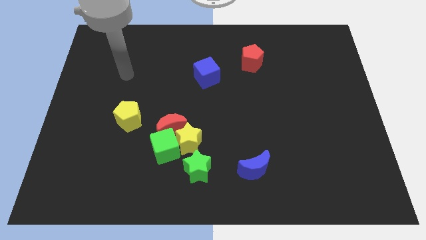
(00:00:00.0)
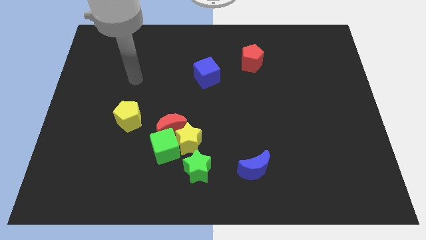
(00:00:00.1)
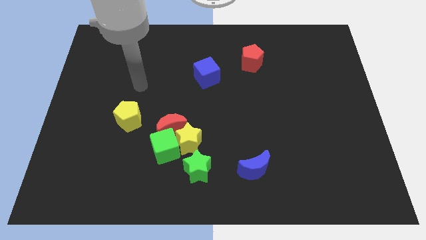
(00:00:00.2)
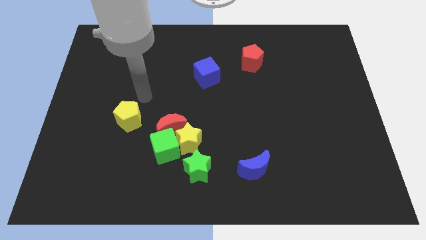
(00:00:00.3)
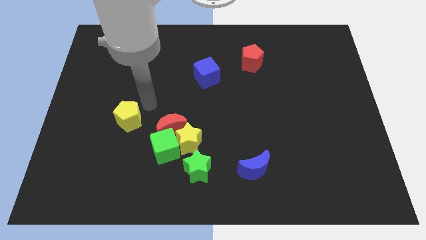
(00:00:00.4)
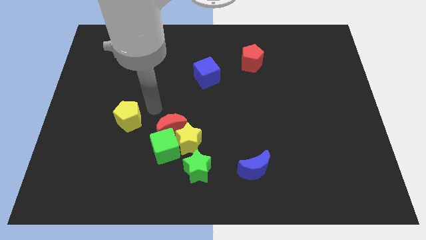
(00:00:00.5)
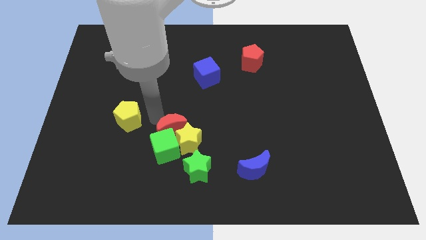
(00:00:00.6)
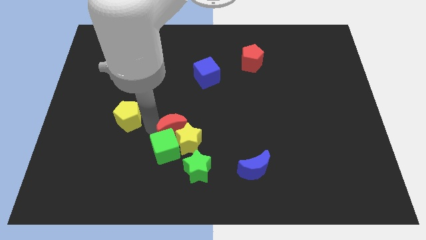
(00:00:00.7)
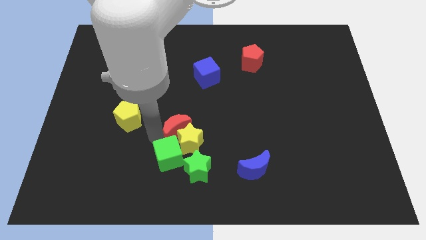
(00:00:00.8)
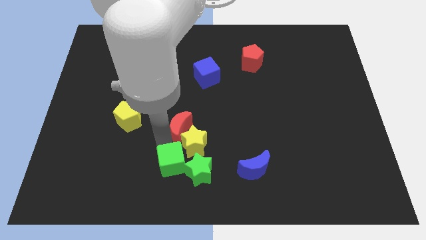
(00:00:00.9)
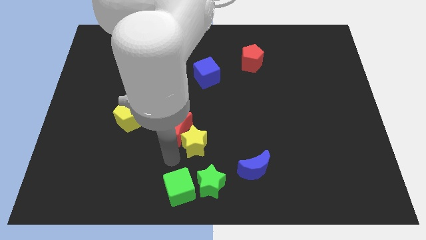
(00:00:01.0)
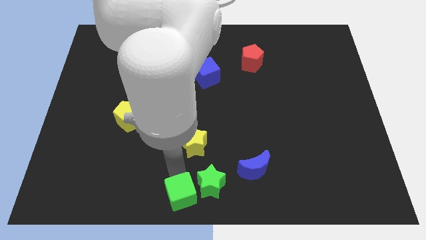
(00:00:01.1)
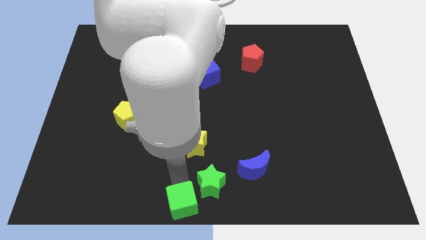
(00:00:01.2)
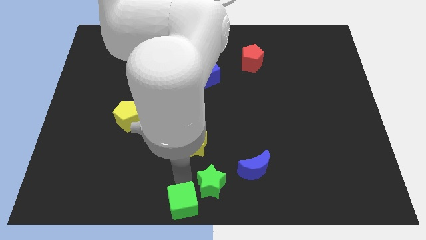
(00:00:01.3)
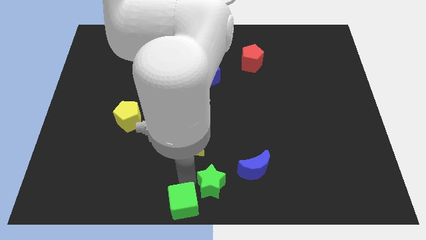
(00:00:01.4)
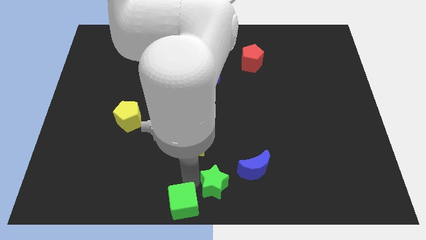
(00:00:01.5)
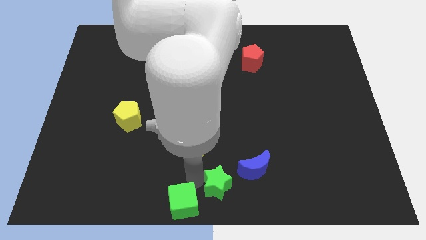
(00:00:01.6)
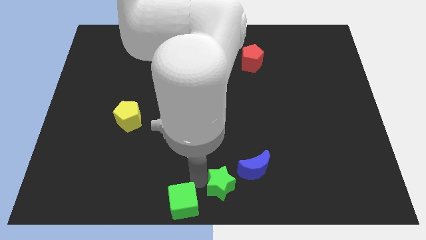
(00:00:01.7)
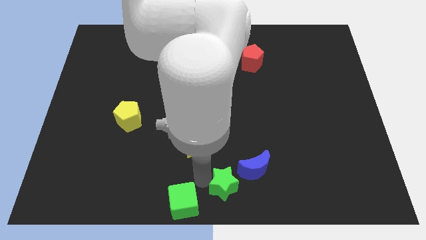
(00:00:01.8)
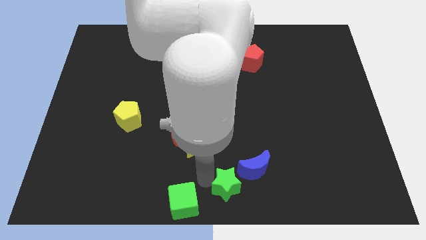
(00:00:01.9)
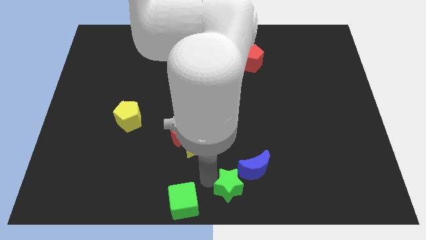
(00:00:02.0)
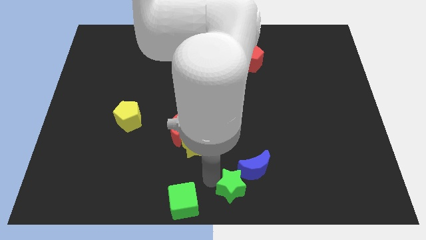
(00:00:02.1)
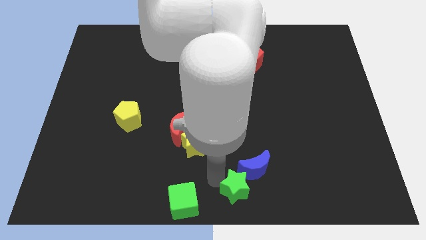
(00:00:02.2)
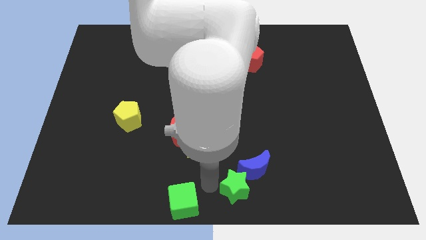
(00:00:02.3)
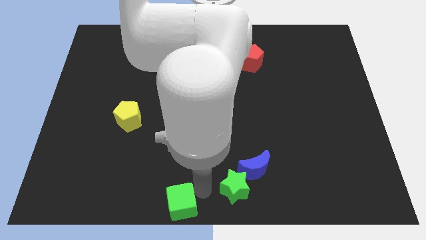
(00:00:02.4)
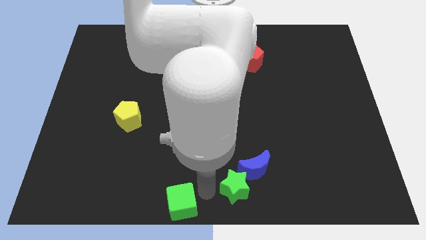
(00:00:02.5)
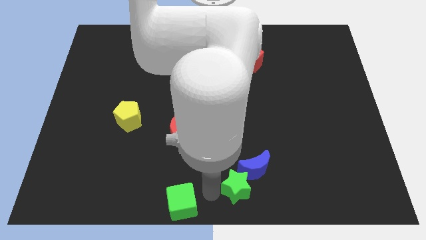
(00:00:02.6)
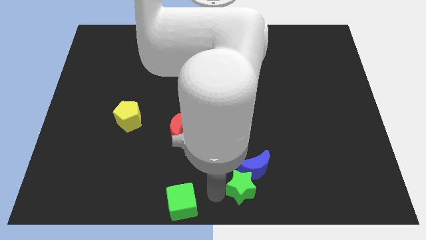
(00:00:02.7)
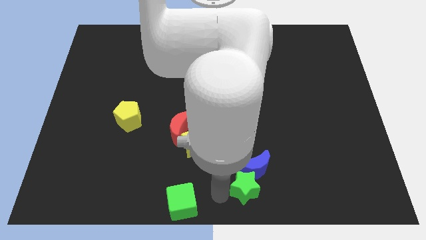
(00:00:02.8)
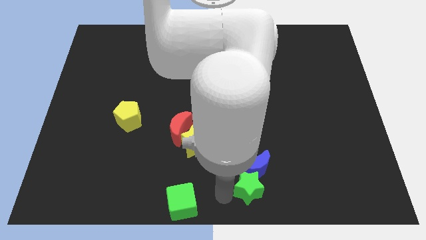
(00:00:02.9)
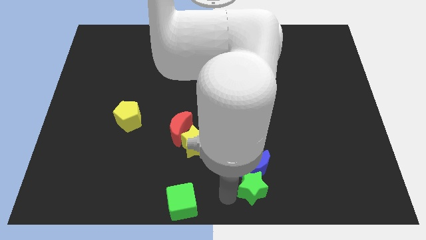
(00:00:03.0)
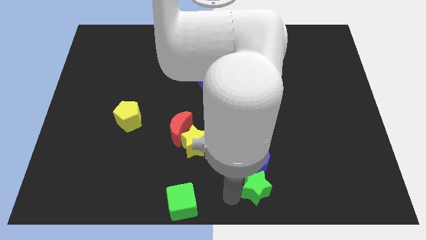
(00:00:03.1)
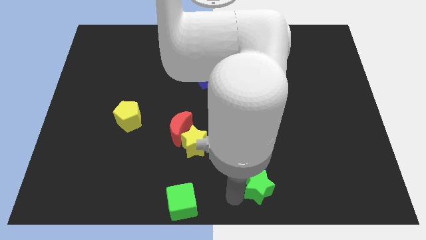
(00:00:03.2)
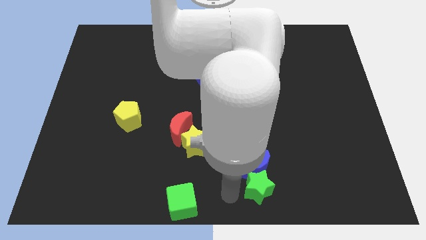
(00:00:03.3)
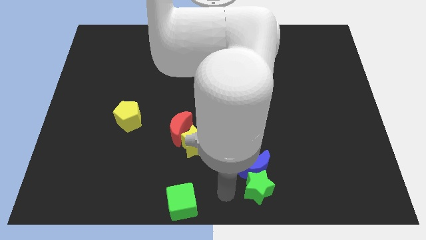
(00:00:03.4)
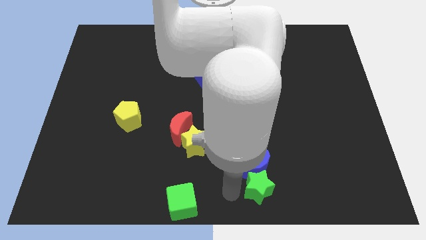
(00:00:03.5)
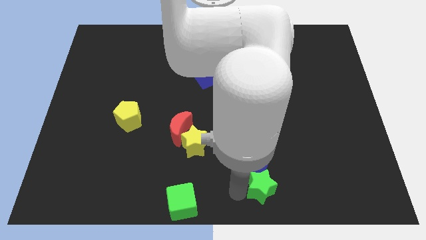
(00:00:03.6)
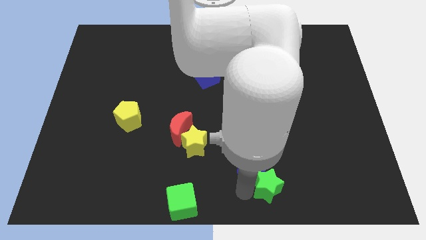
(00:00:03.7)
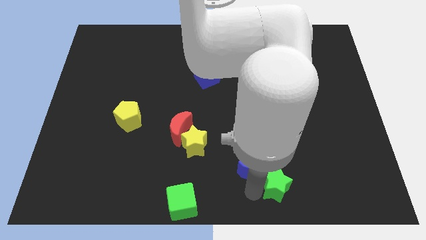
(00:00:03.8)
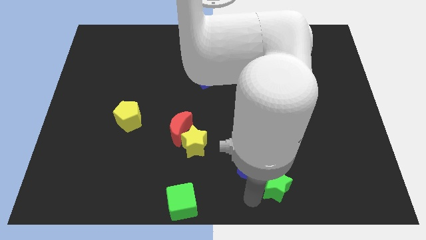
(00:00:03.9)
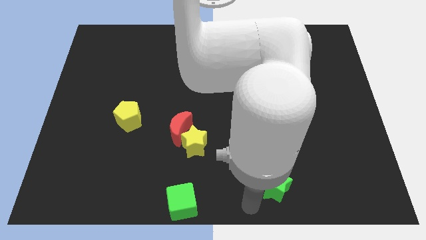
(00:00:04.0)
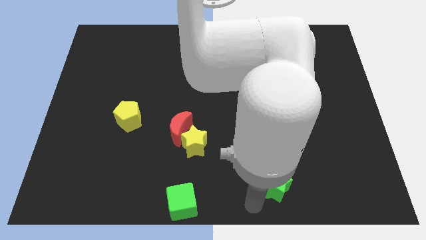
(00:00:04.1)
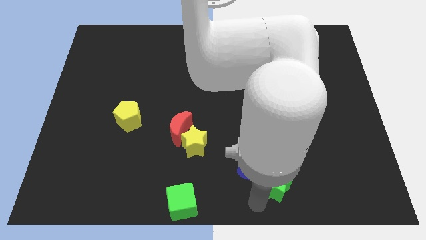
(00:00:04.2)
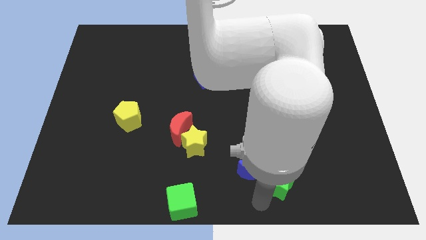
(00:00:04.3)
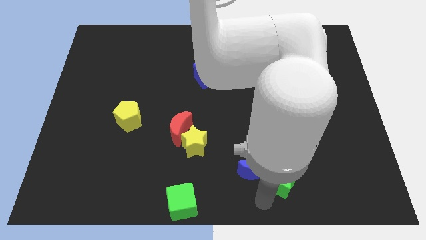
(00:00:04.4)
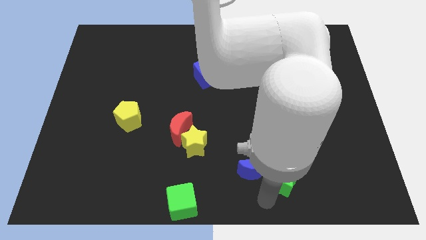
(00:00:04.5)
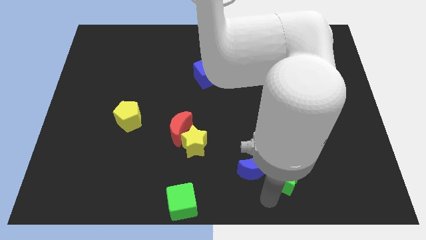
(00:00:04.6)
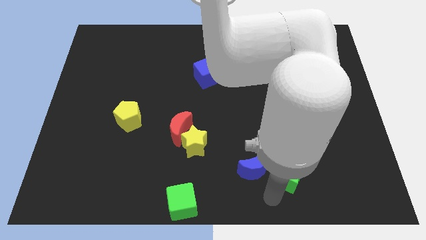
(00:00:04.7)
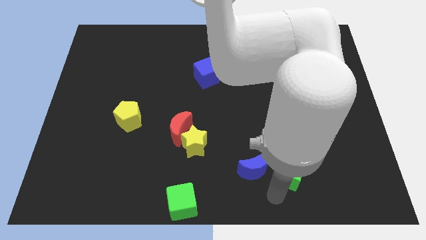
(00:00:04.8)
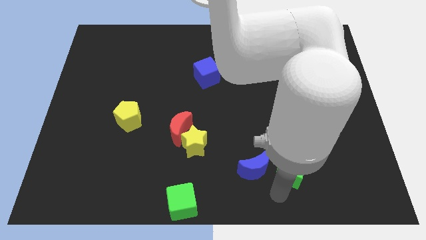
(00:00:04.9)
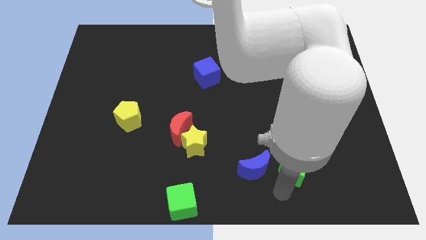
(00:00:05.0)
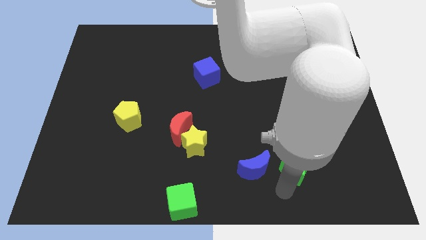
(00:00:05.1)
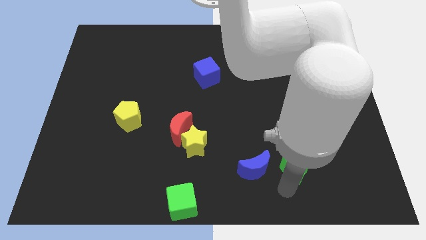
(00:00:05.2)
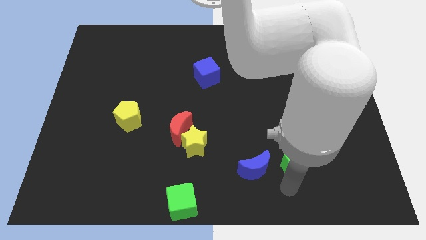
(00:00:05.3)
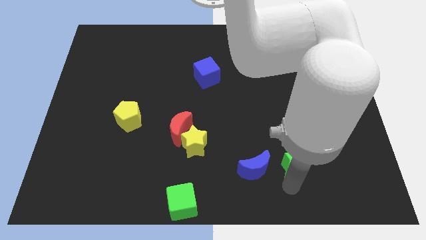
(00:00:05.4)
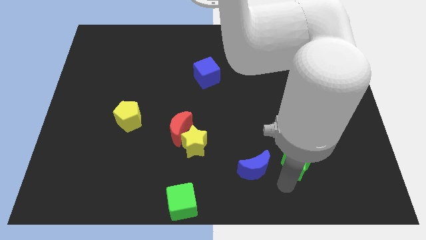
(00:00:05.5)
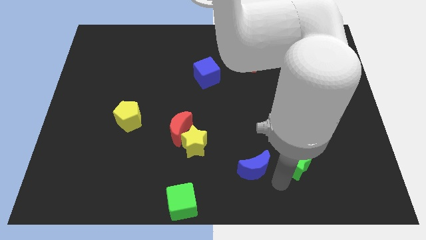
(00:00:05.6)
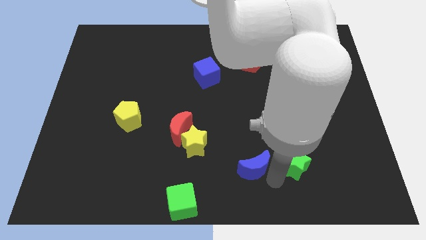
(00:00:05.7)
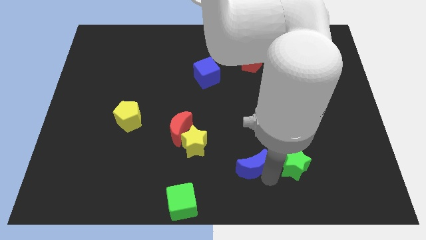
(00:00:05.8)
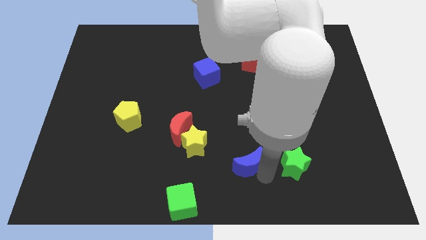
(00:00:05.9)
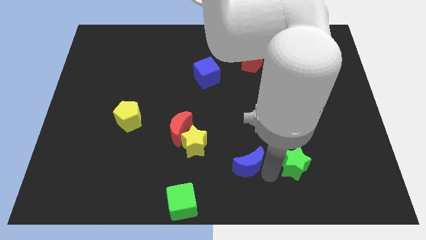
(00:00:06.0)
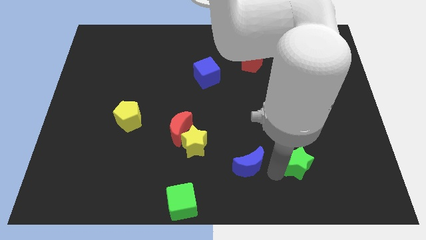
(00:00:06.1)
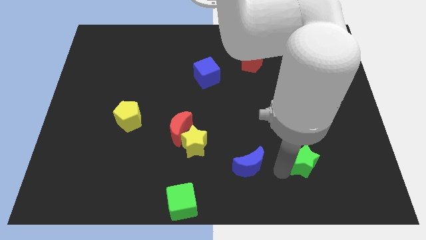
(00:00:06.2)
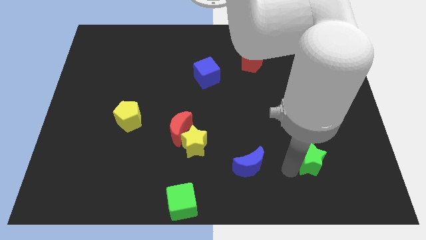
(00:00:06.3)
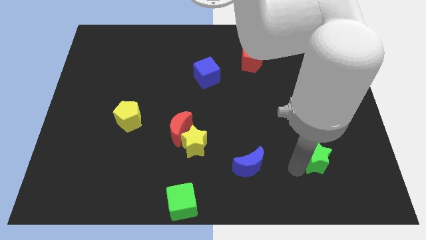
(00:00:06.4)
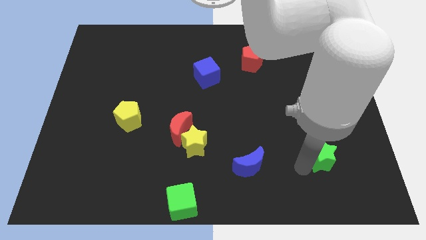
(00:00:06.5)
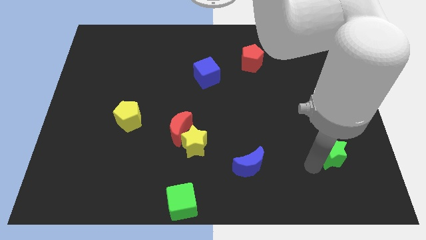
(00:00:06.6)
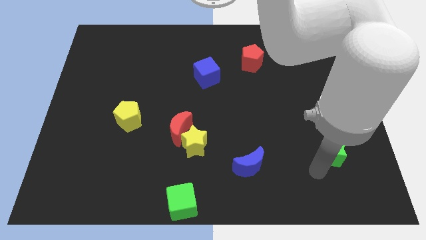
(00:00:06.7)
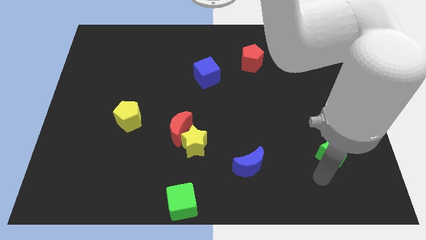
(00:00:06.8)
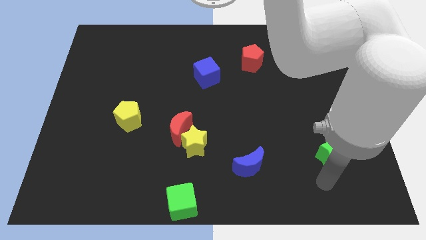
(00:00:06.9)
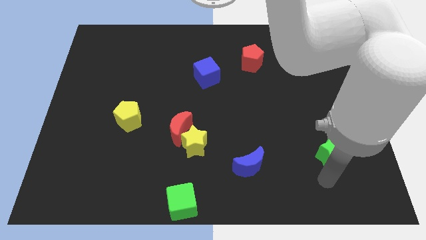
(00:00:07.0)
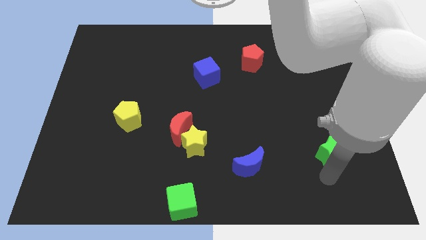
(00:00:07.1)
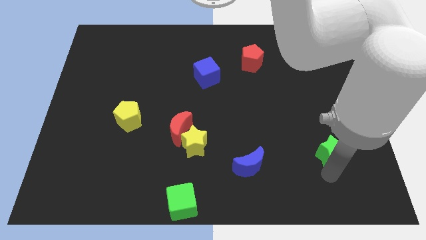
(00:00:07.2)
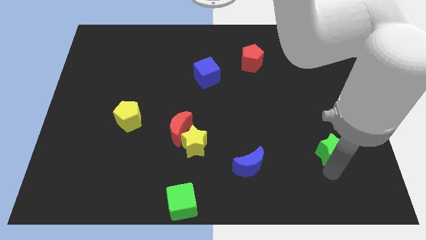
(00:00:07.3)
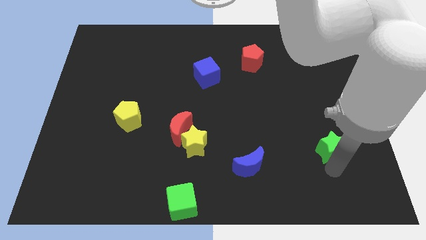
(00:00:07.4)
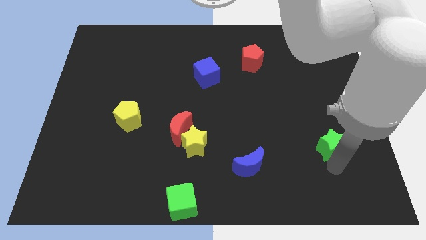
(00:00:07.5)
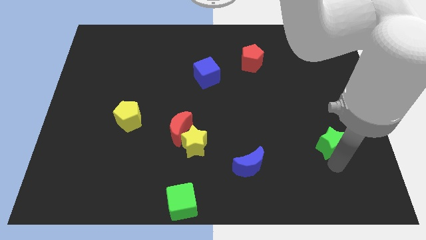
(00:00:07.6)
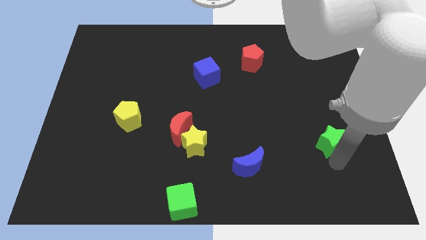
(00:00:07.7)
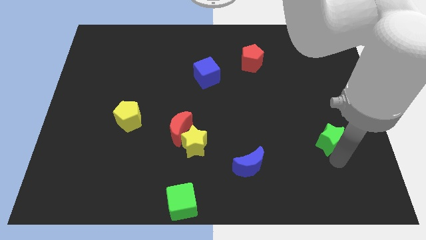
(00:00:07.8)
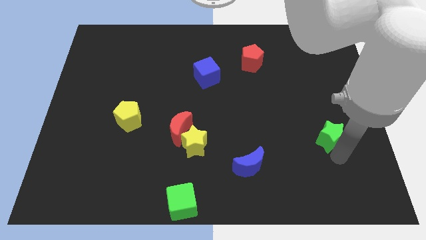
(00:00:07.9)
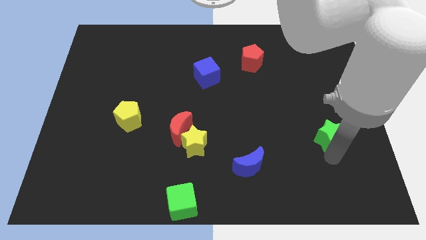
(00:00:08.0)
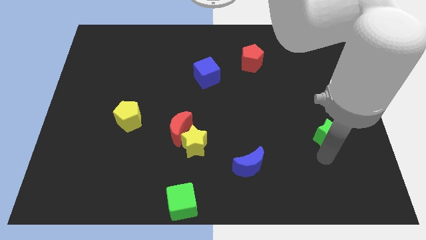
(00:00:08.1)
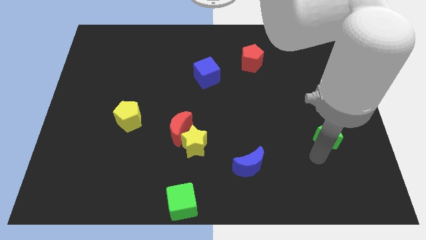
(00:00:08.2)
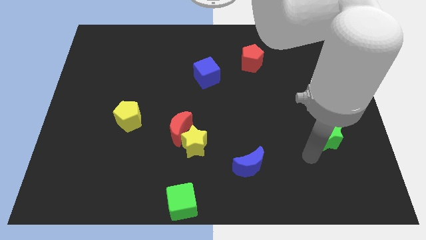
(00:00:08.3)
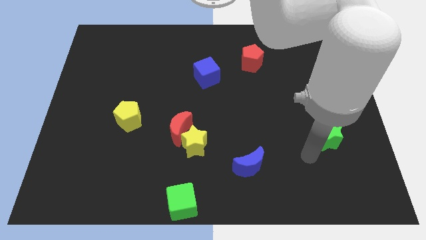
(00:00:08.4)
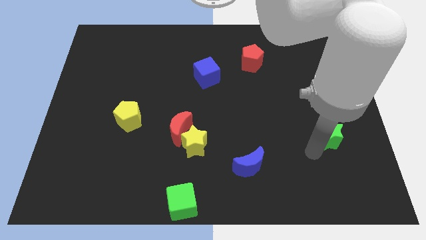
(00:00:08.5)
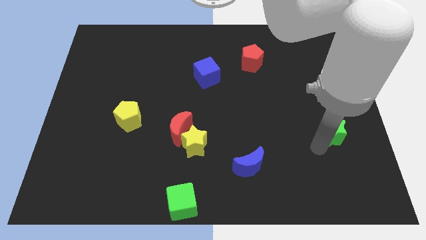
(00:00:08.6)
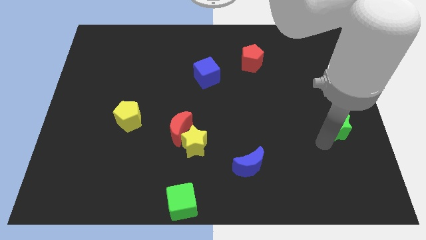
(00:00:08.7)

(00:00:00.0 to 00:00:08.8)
push the green star to the center right
